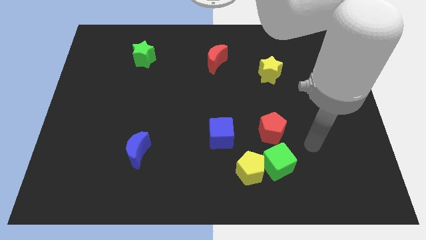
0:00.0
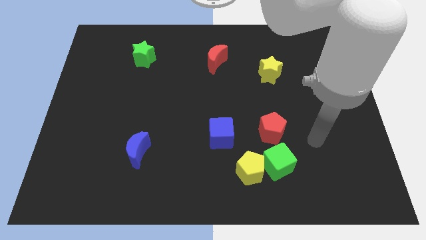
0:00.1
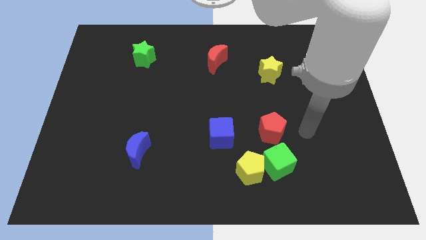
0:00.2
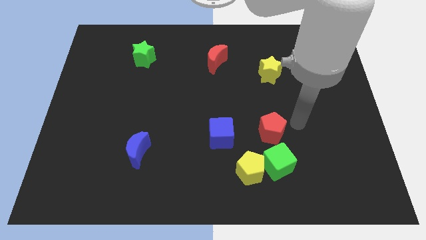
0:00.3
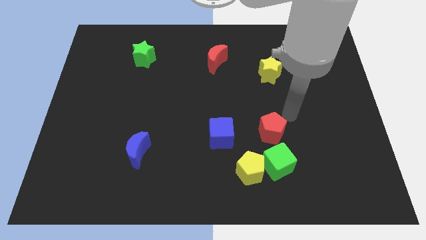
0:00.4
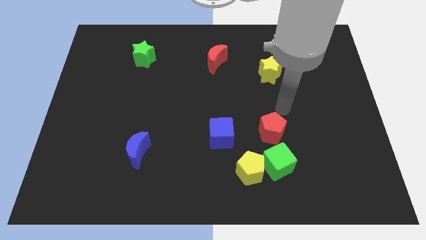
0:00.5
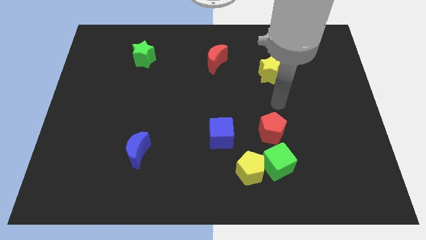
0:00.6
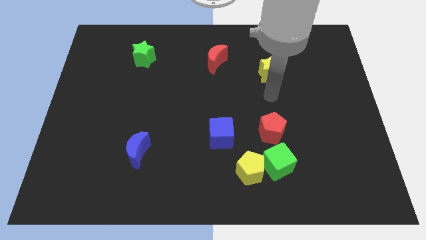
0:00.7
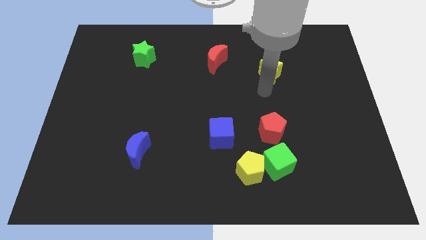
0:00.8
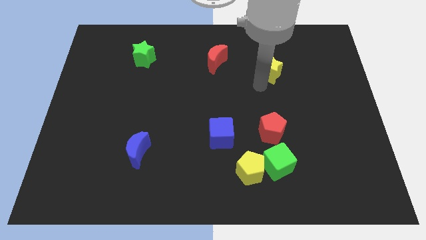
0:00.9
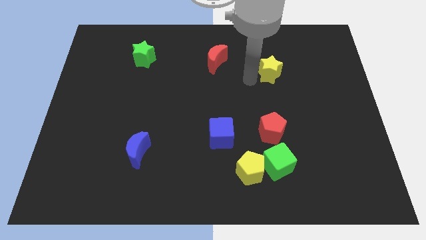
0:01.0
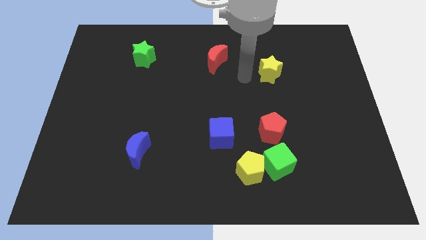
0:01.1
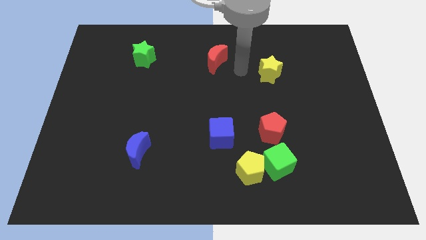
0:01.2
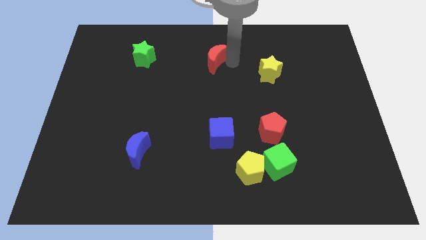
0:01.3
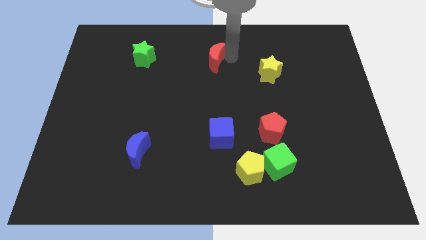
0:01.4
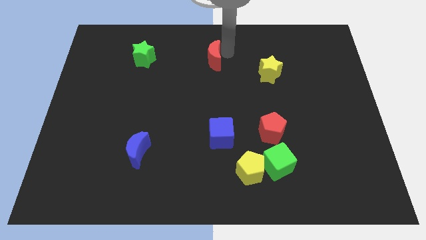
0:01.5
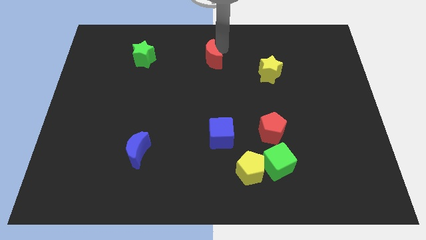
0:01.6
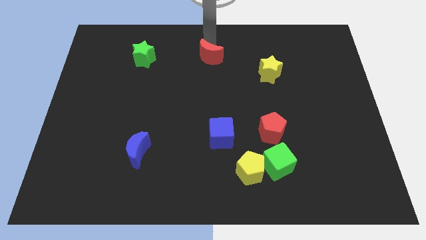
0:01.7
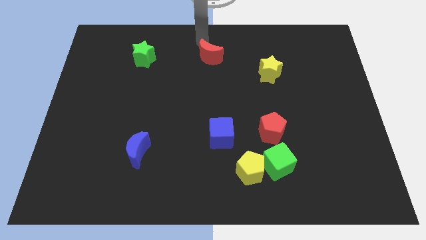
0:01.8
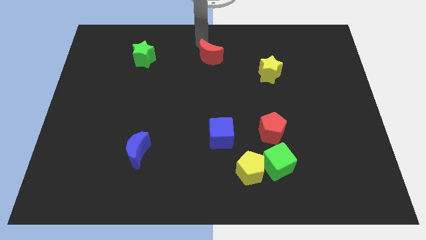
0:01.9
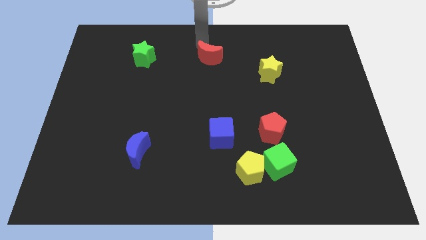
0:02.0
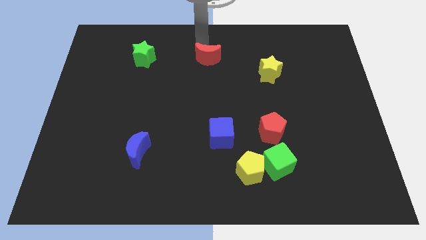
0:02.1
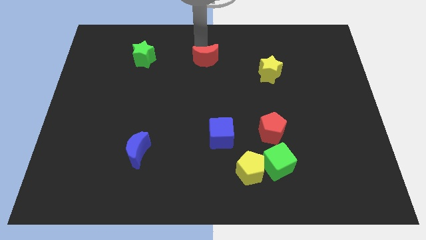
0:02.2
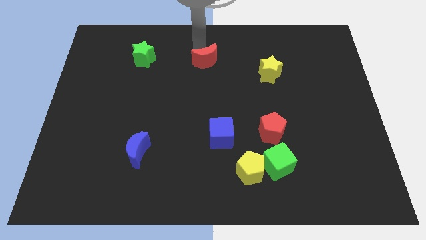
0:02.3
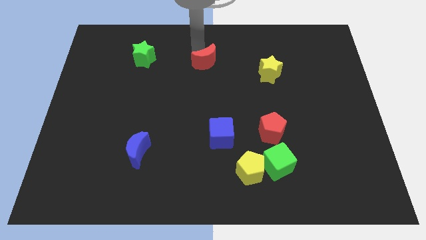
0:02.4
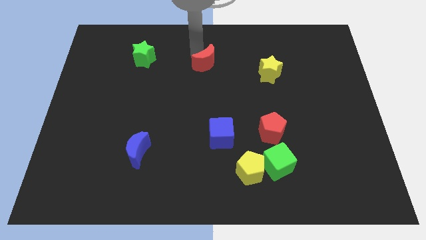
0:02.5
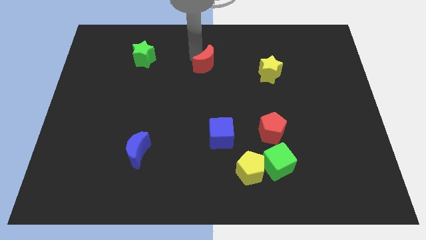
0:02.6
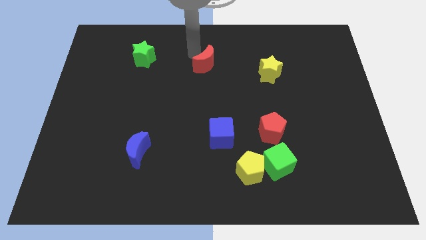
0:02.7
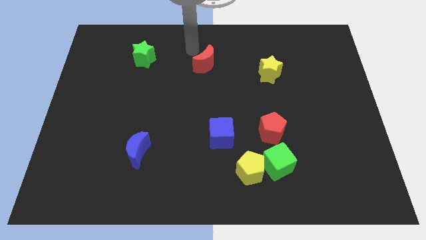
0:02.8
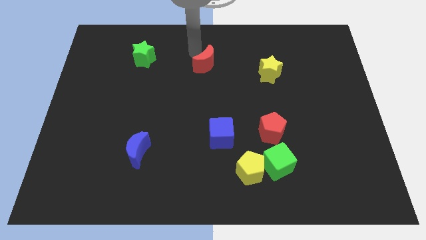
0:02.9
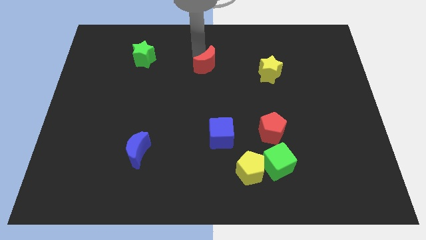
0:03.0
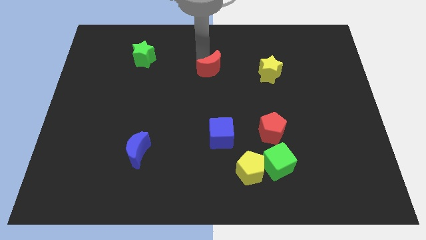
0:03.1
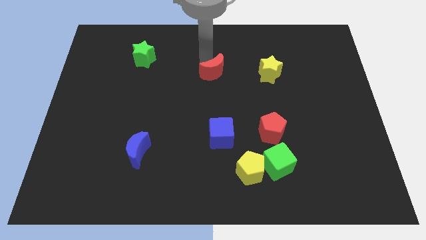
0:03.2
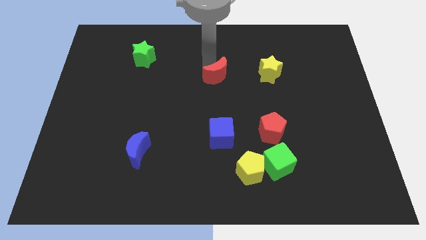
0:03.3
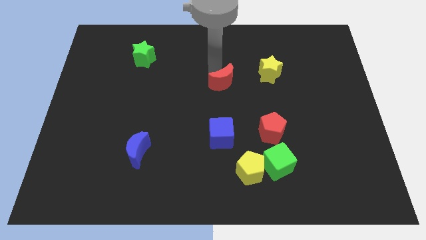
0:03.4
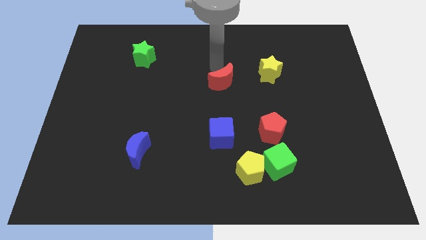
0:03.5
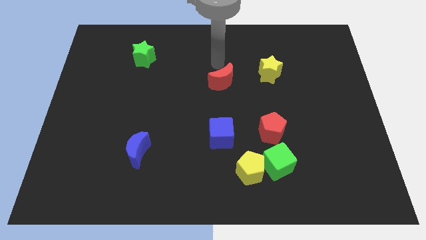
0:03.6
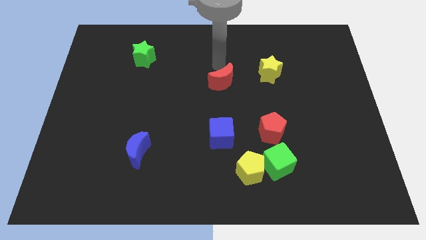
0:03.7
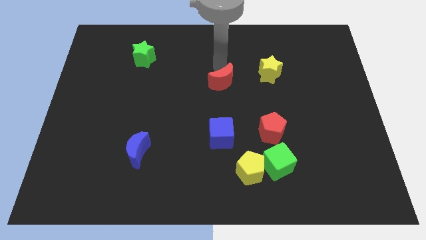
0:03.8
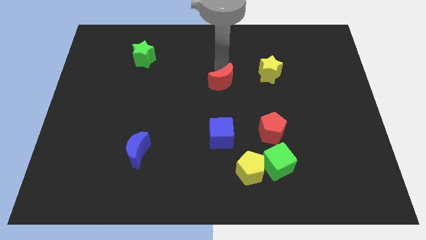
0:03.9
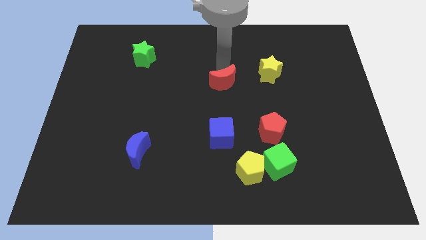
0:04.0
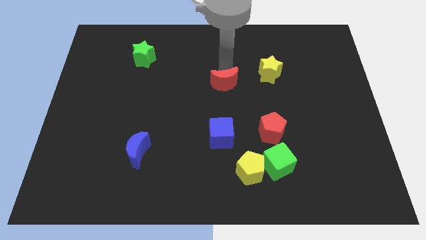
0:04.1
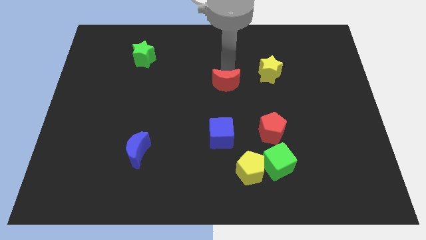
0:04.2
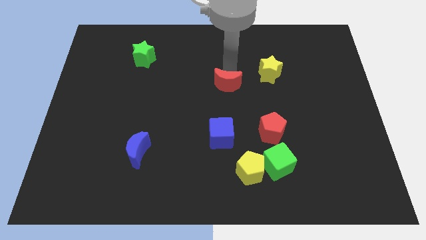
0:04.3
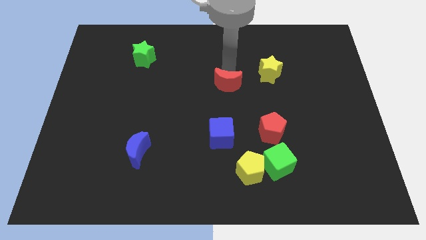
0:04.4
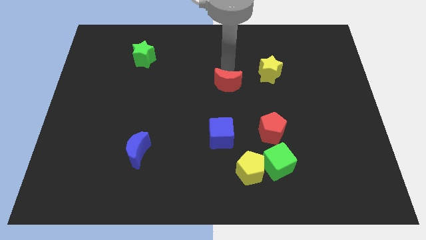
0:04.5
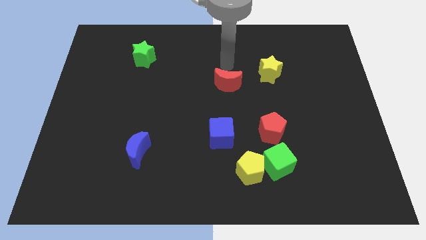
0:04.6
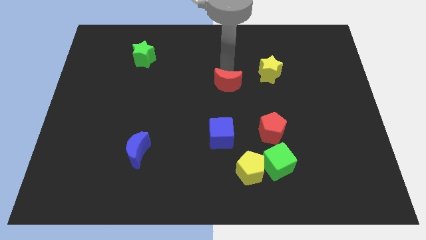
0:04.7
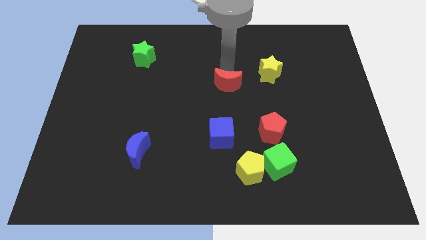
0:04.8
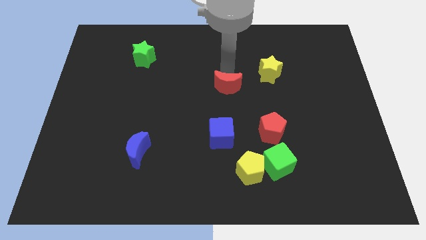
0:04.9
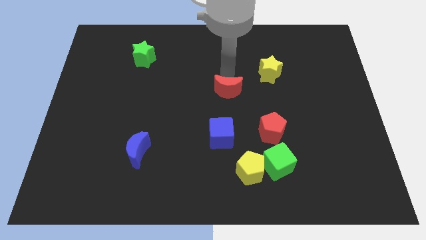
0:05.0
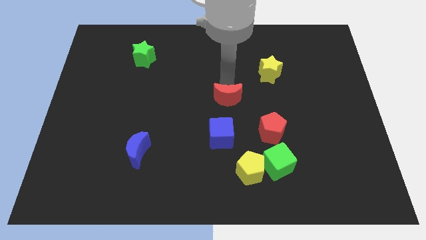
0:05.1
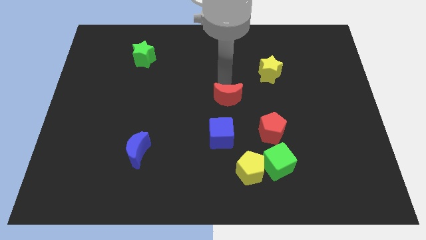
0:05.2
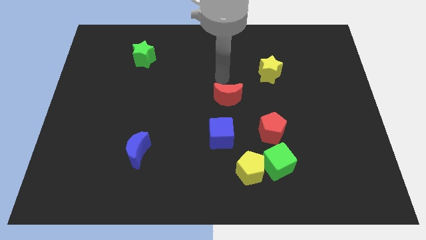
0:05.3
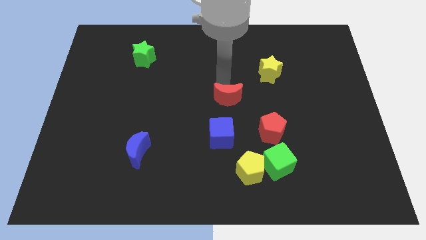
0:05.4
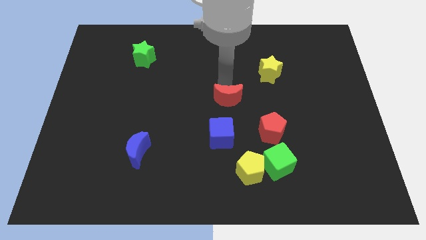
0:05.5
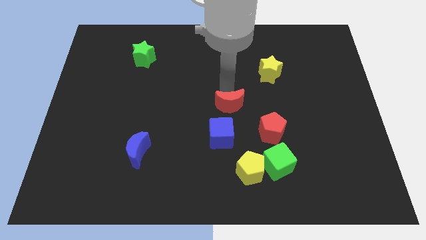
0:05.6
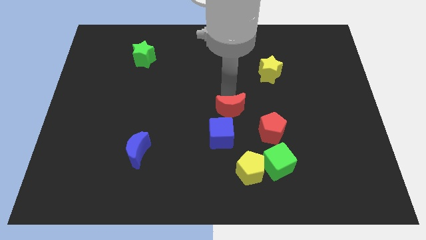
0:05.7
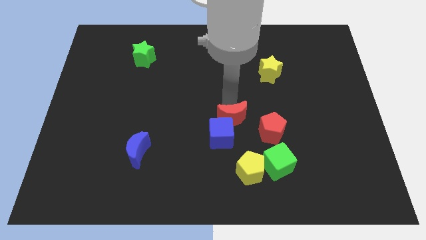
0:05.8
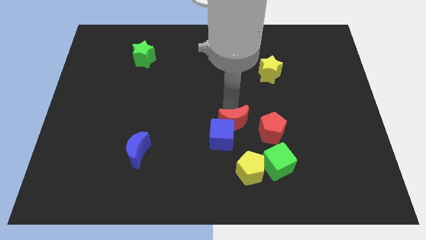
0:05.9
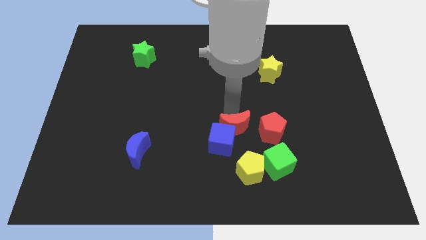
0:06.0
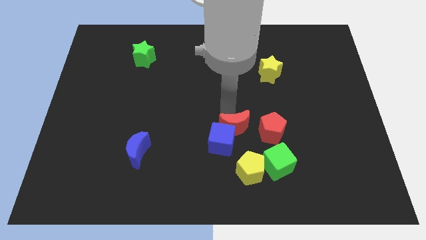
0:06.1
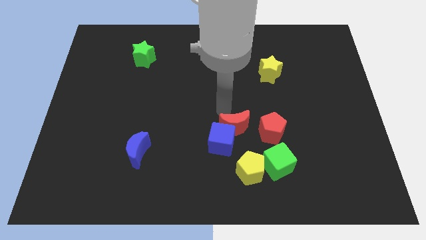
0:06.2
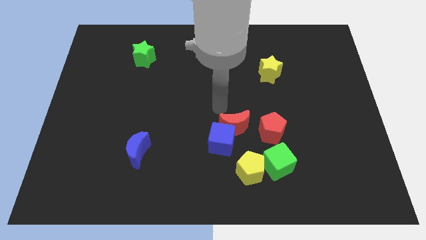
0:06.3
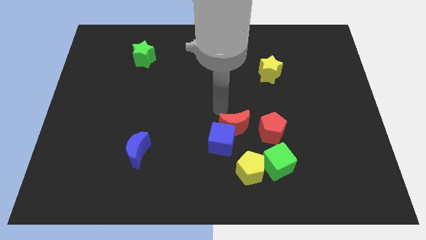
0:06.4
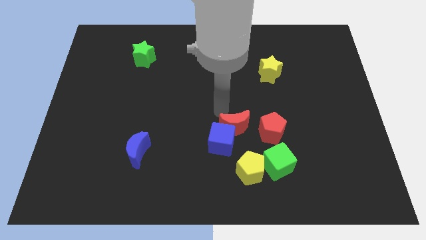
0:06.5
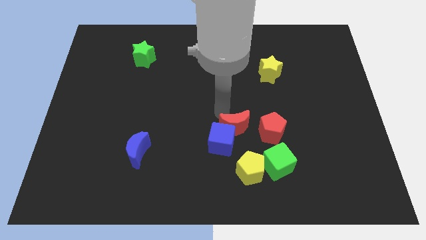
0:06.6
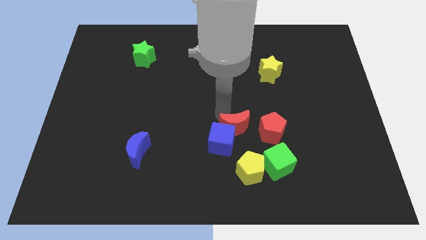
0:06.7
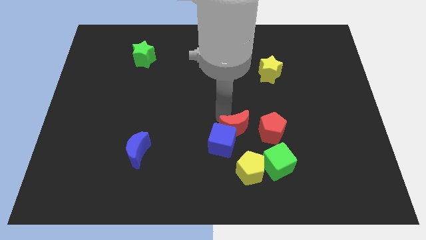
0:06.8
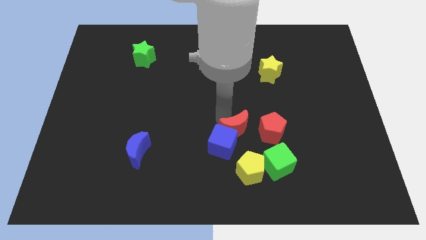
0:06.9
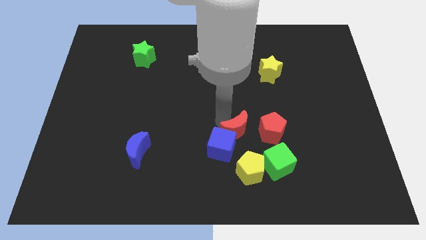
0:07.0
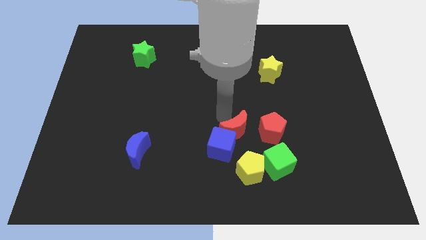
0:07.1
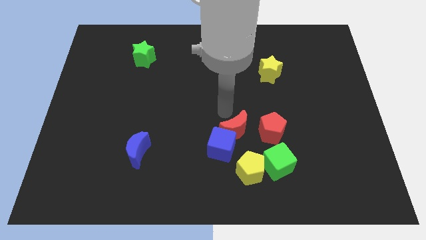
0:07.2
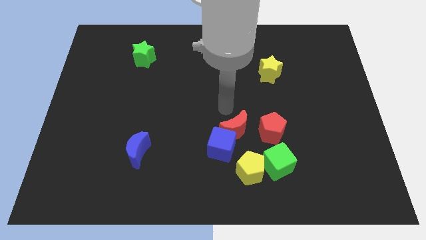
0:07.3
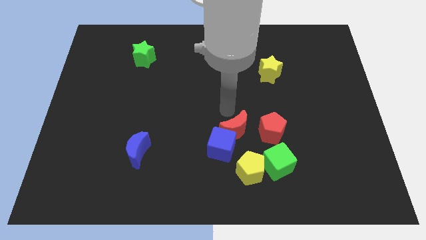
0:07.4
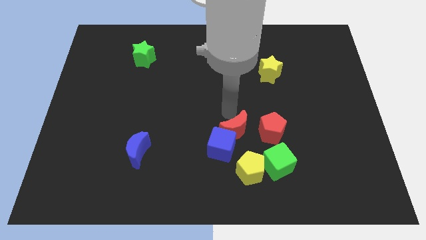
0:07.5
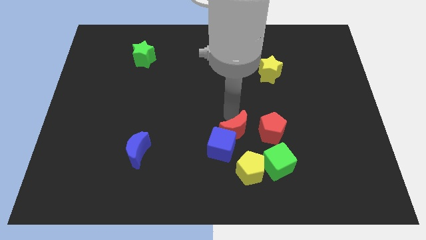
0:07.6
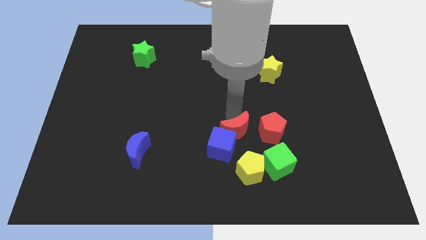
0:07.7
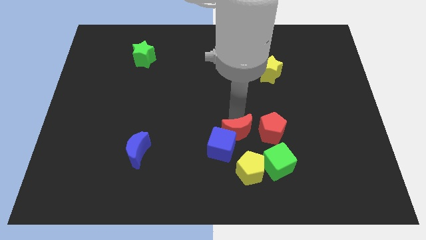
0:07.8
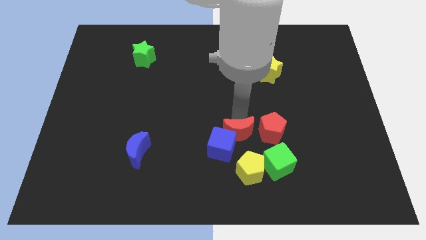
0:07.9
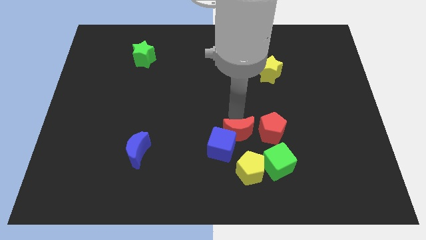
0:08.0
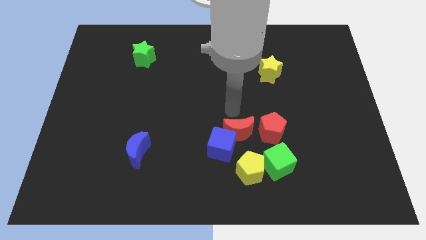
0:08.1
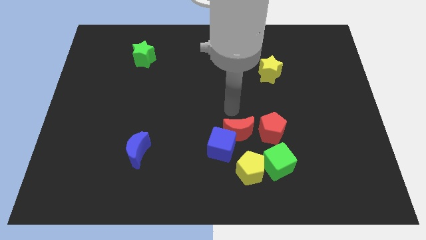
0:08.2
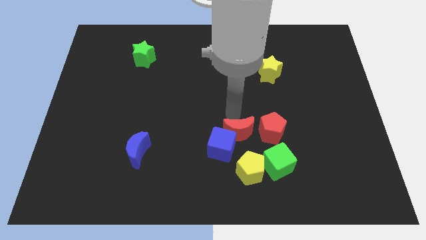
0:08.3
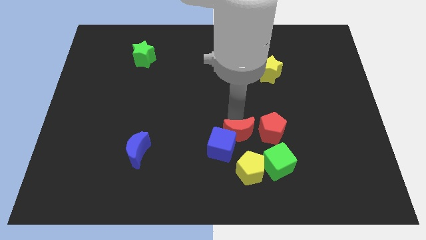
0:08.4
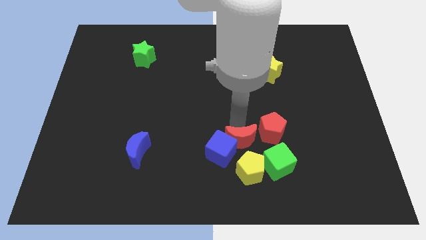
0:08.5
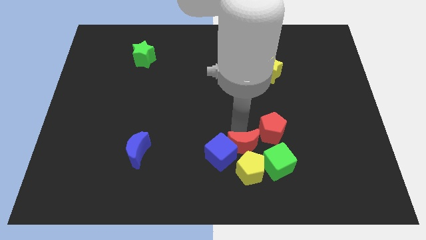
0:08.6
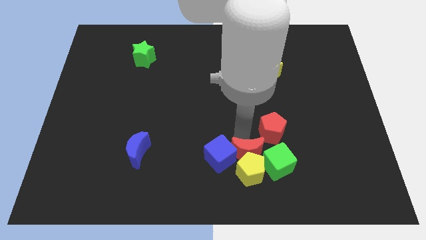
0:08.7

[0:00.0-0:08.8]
move the red moon to the yellow pentagon
